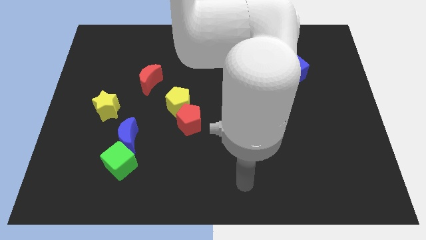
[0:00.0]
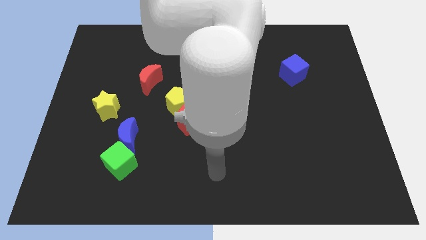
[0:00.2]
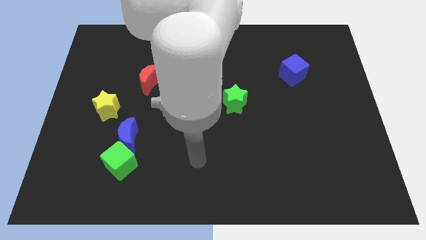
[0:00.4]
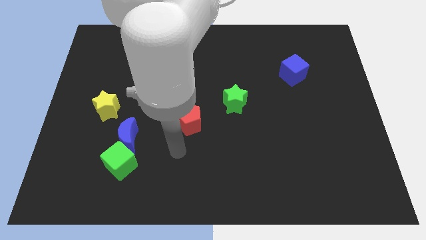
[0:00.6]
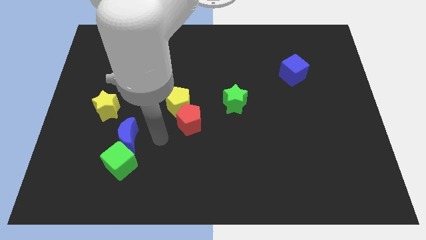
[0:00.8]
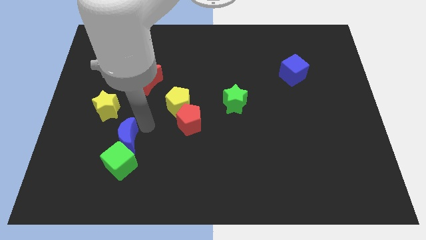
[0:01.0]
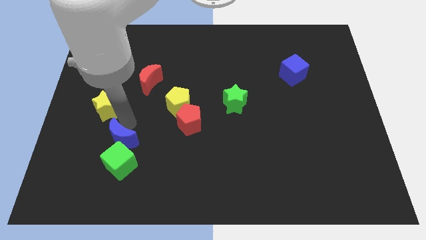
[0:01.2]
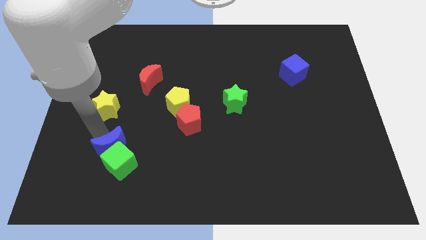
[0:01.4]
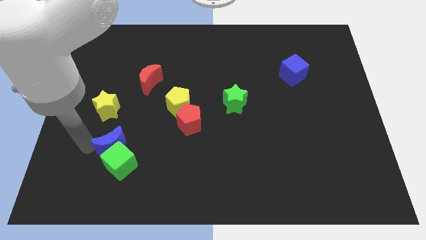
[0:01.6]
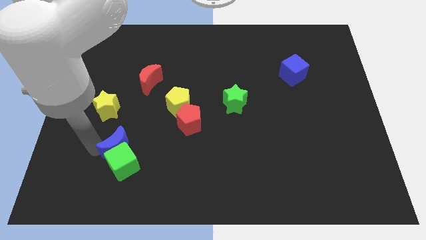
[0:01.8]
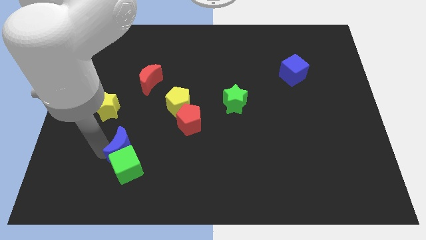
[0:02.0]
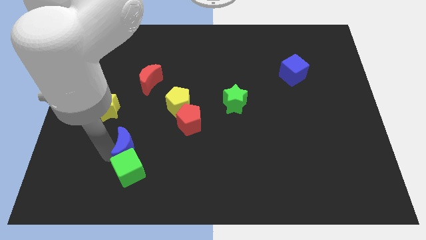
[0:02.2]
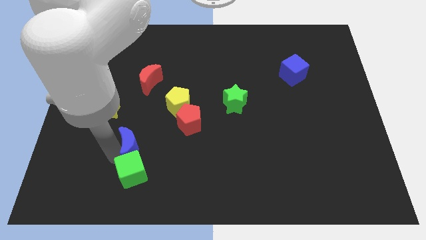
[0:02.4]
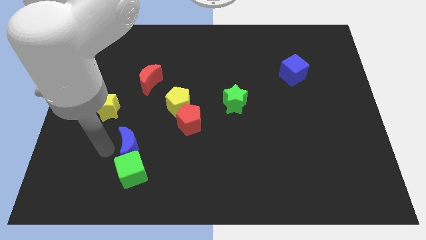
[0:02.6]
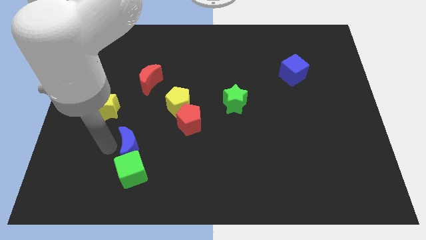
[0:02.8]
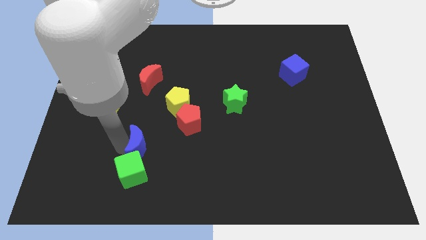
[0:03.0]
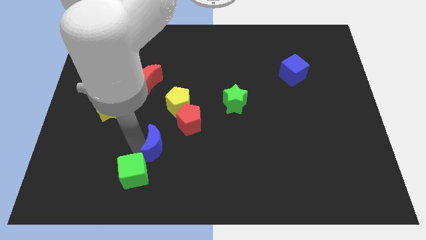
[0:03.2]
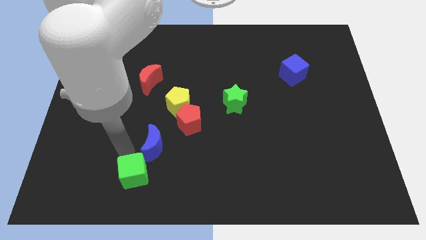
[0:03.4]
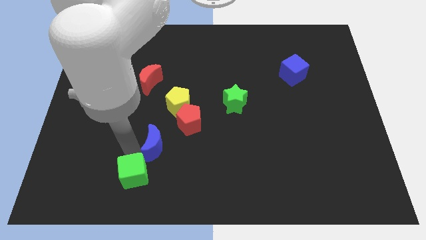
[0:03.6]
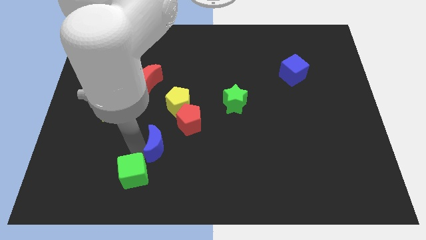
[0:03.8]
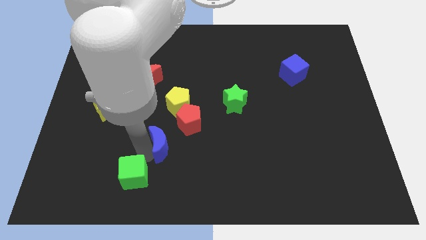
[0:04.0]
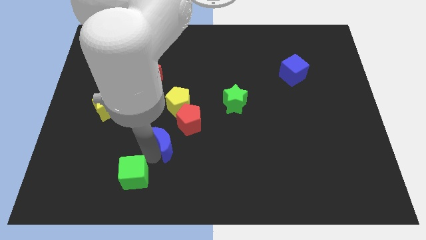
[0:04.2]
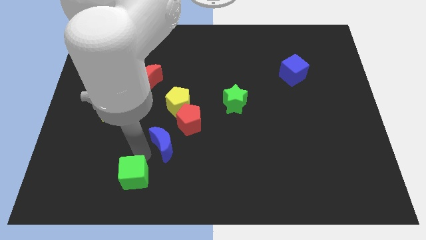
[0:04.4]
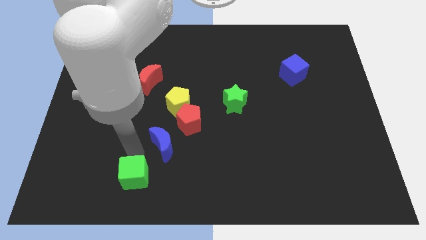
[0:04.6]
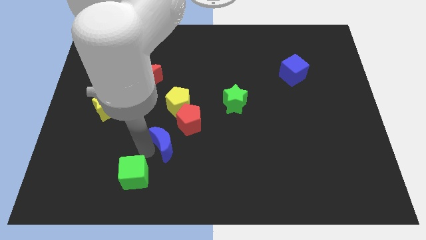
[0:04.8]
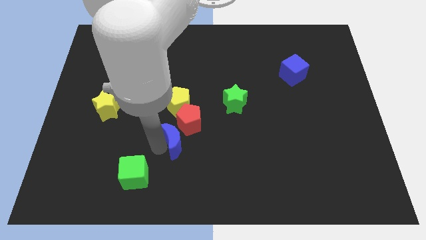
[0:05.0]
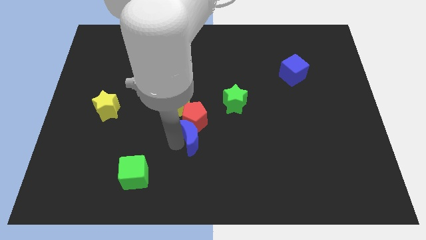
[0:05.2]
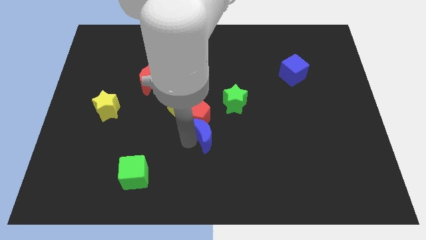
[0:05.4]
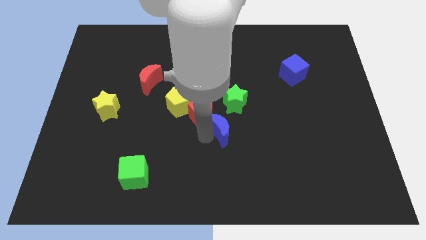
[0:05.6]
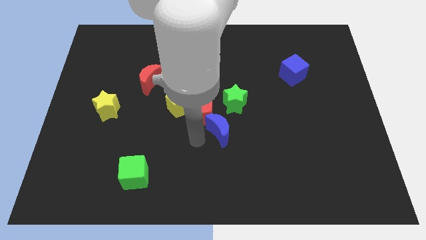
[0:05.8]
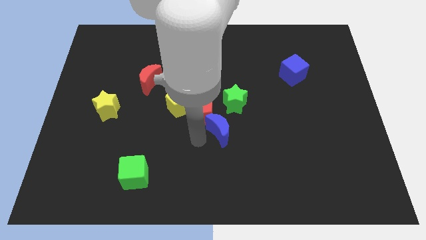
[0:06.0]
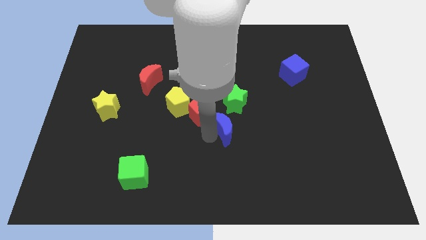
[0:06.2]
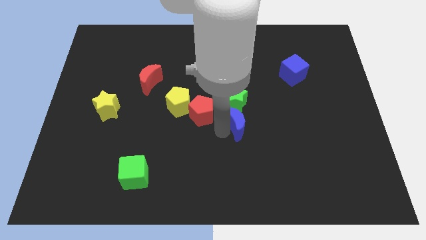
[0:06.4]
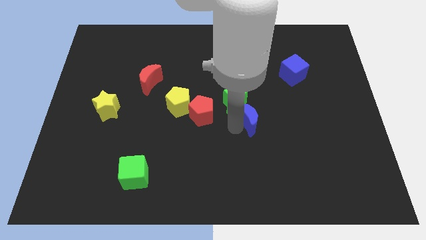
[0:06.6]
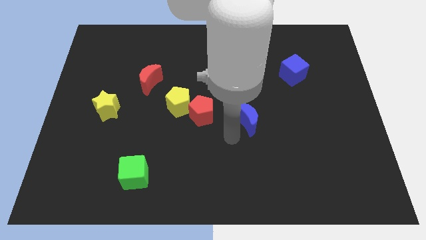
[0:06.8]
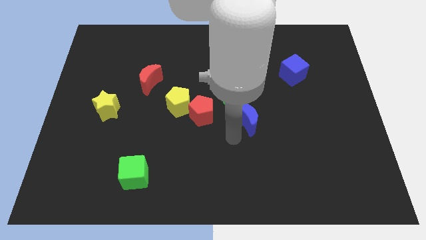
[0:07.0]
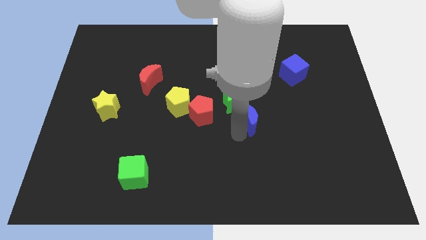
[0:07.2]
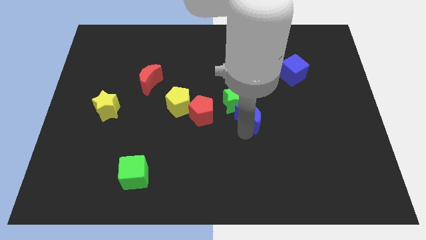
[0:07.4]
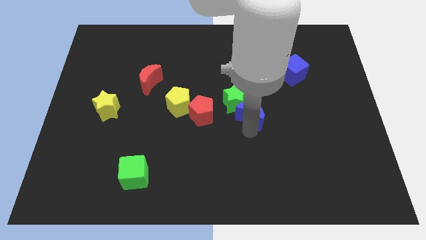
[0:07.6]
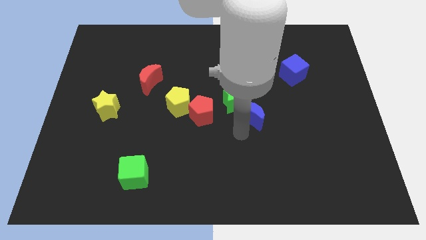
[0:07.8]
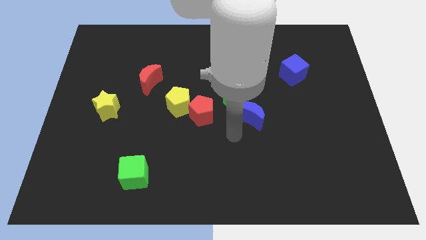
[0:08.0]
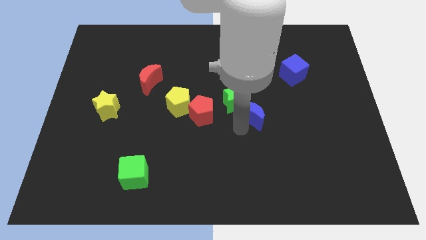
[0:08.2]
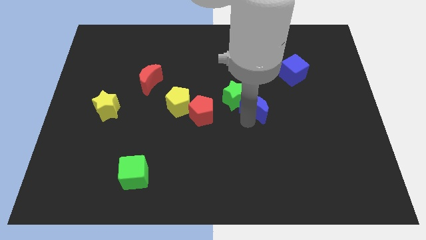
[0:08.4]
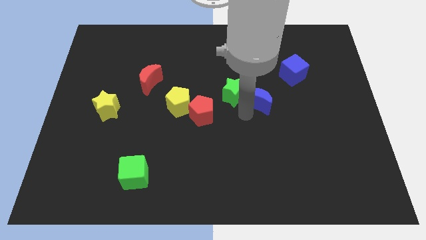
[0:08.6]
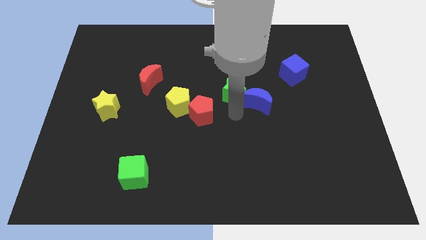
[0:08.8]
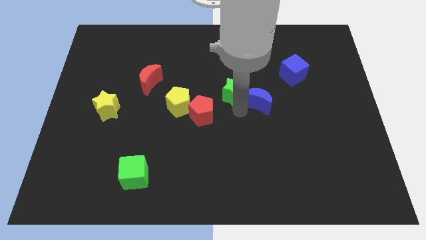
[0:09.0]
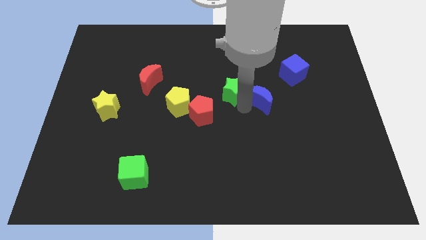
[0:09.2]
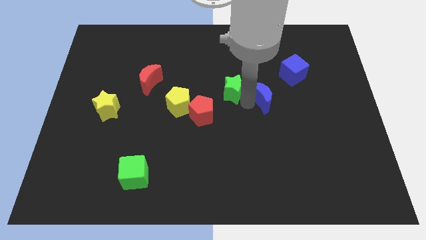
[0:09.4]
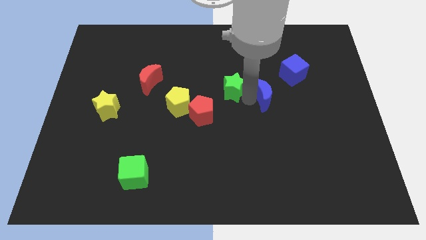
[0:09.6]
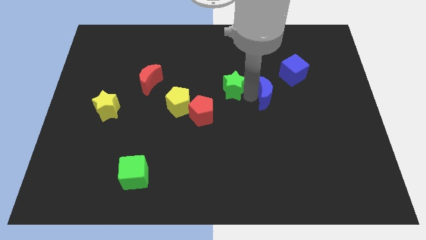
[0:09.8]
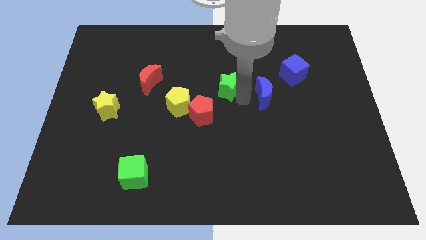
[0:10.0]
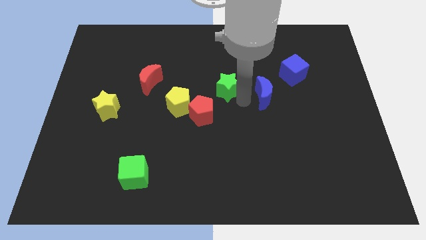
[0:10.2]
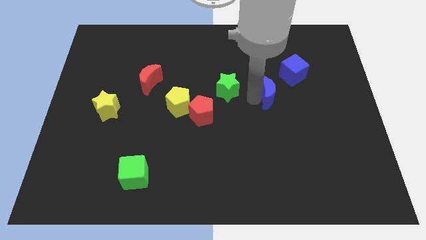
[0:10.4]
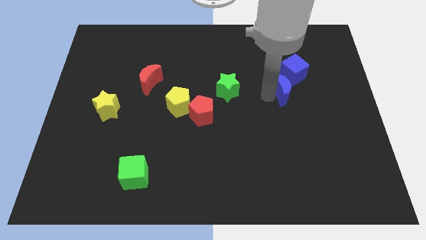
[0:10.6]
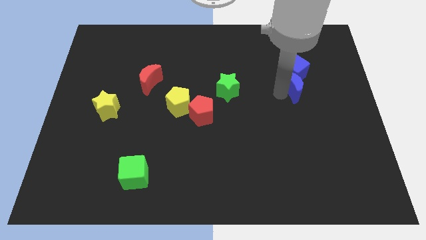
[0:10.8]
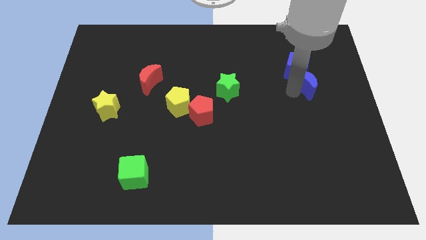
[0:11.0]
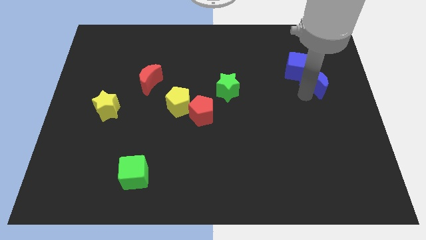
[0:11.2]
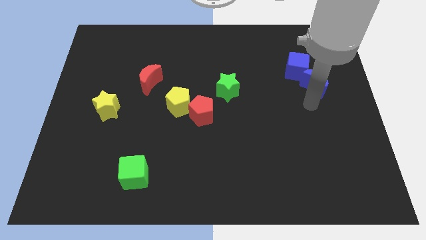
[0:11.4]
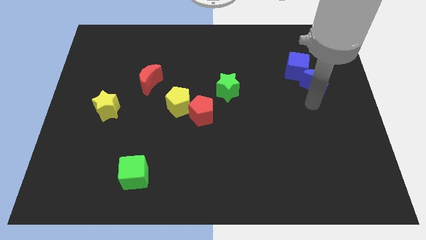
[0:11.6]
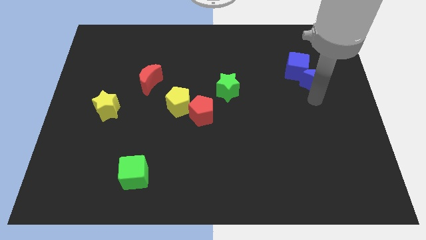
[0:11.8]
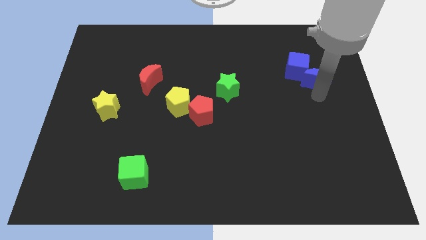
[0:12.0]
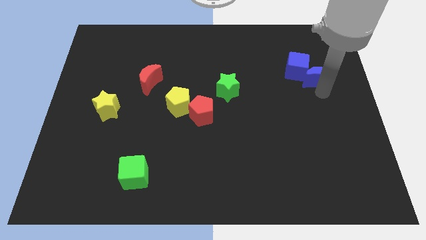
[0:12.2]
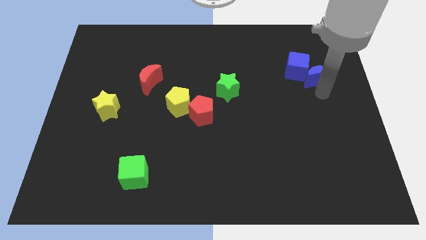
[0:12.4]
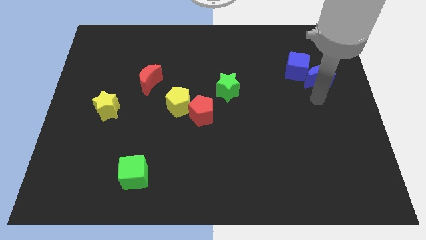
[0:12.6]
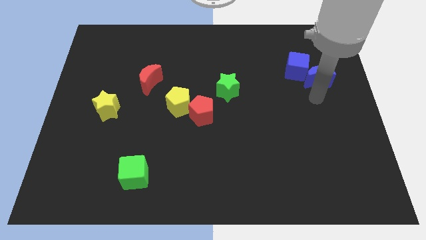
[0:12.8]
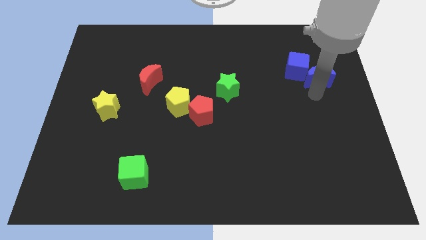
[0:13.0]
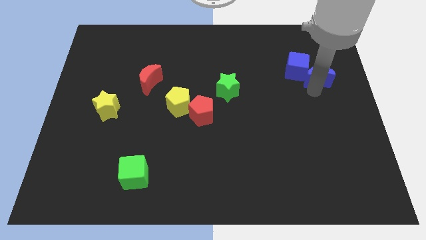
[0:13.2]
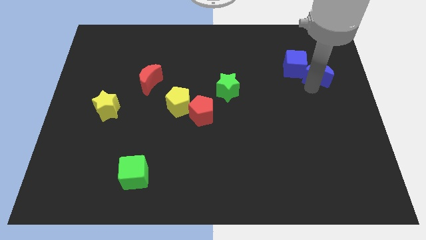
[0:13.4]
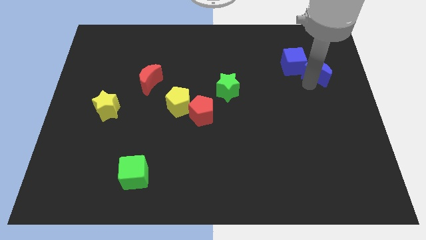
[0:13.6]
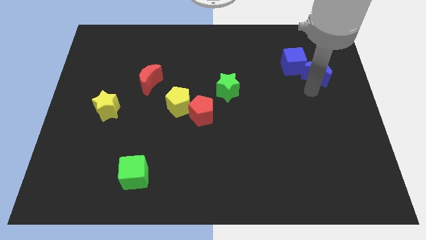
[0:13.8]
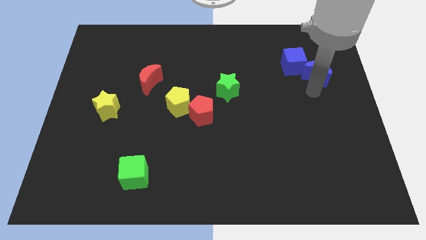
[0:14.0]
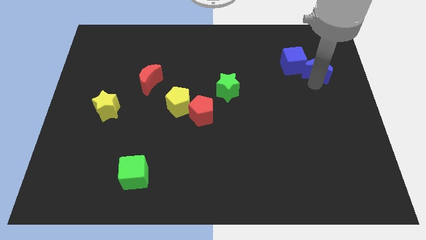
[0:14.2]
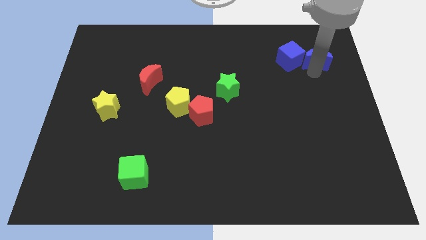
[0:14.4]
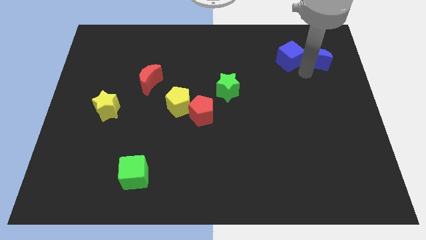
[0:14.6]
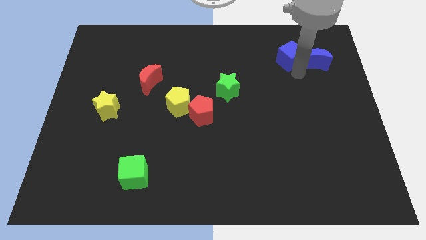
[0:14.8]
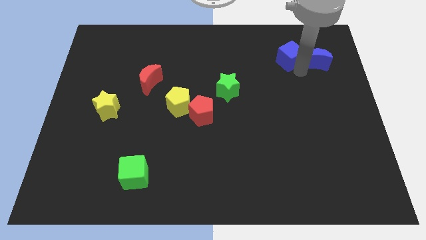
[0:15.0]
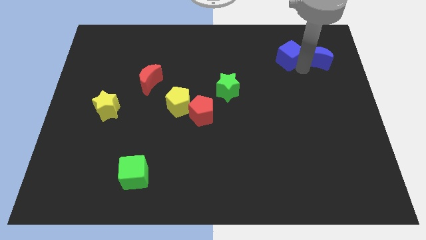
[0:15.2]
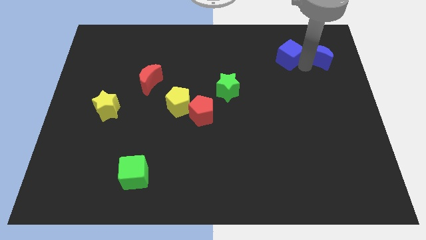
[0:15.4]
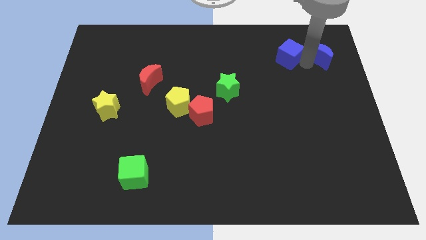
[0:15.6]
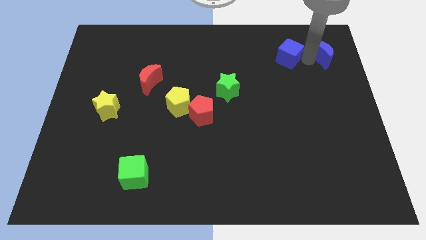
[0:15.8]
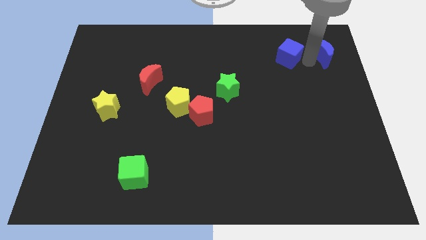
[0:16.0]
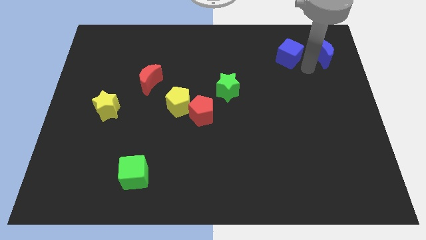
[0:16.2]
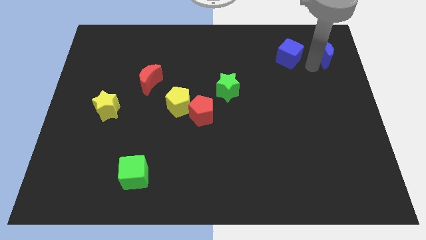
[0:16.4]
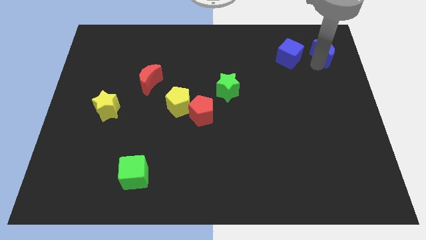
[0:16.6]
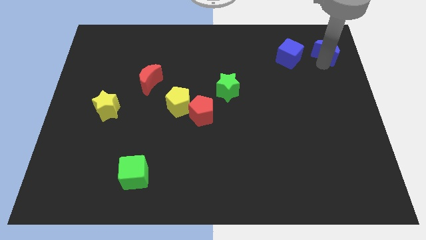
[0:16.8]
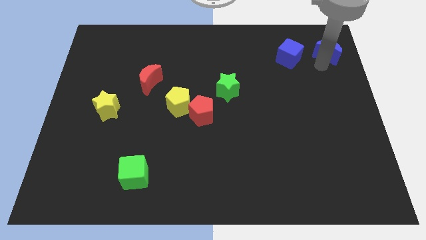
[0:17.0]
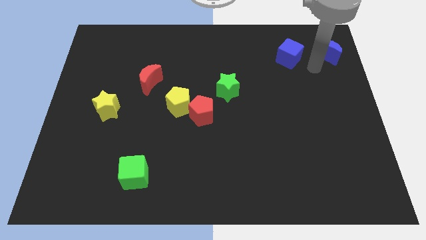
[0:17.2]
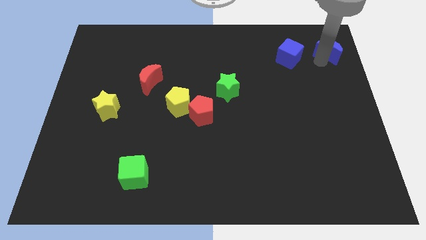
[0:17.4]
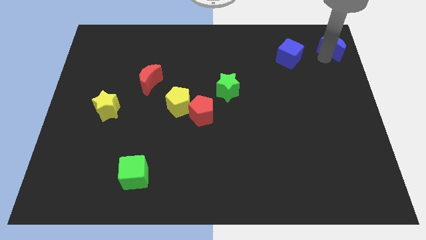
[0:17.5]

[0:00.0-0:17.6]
slide the blue moon to the top right of the board
